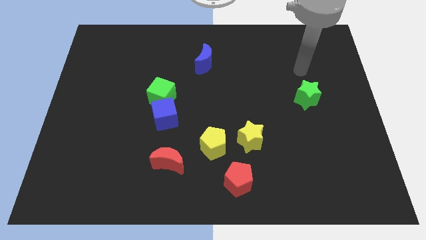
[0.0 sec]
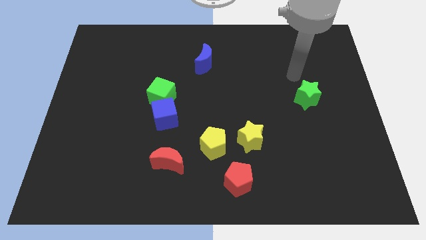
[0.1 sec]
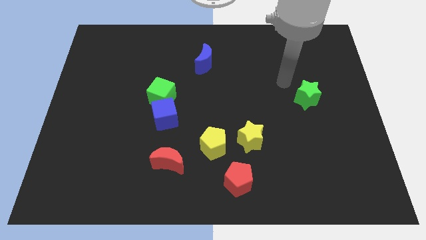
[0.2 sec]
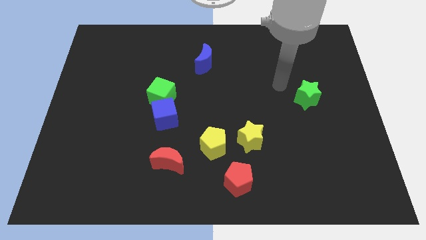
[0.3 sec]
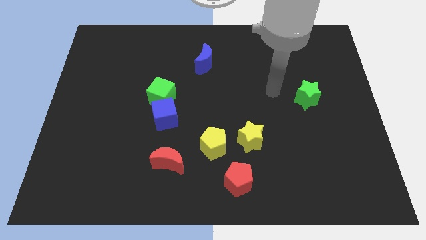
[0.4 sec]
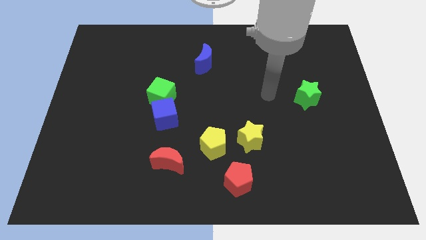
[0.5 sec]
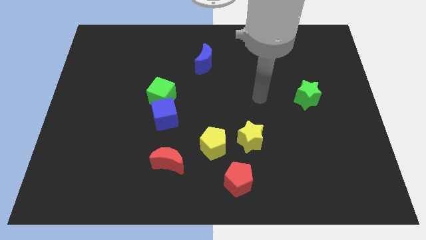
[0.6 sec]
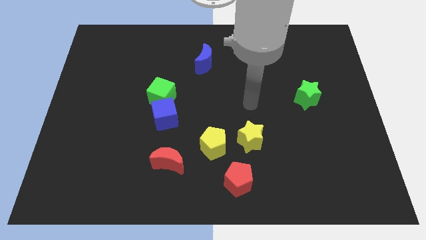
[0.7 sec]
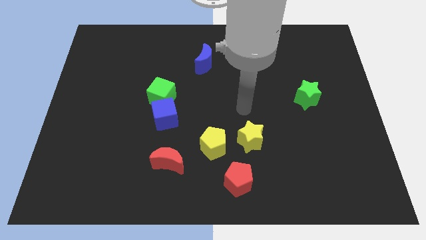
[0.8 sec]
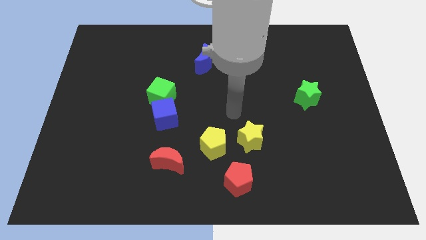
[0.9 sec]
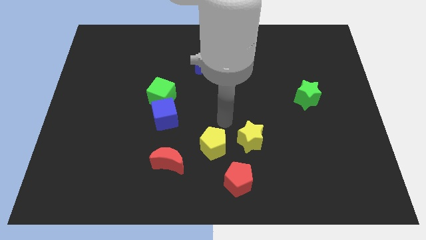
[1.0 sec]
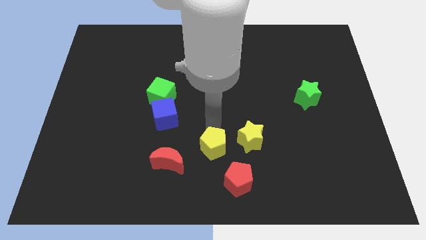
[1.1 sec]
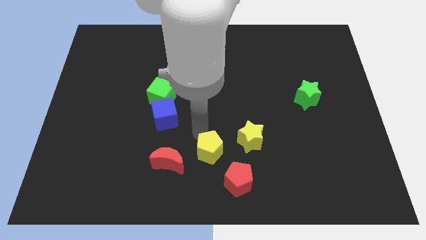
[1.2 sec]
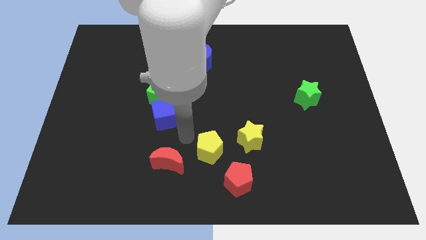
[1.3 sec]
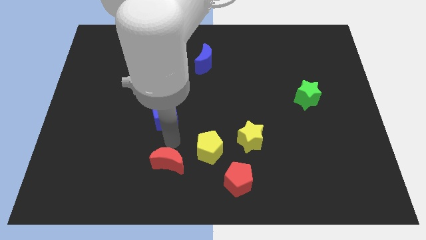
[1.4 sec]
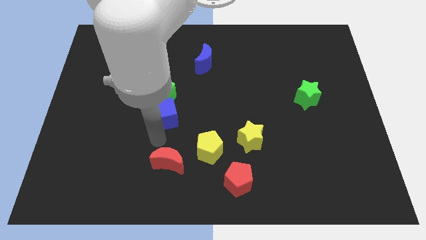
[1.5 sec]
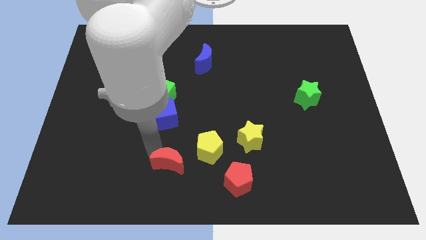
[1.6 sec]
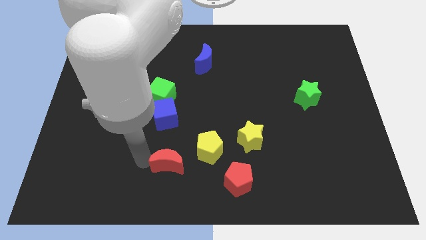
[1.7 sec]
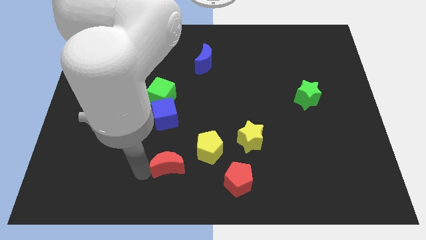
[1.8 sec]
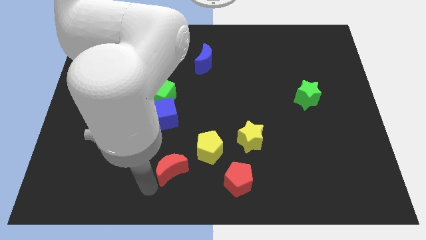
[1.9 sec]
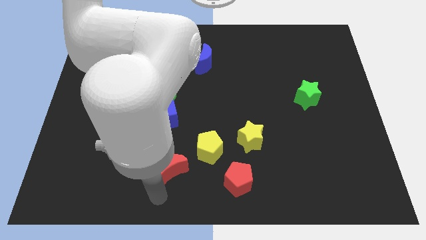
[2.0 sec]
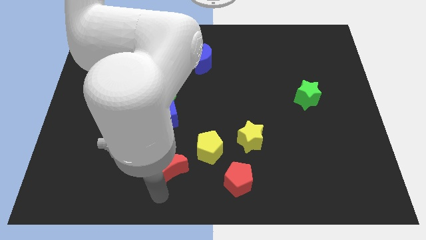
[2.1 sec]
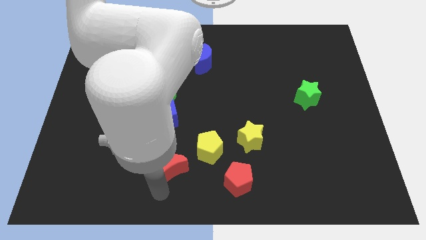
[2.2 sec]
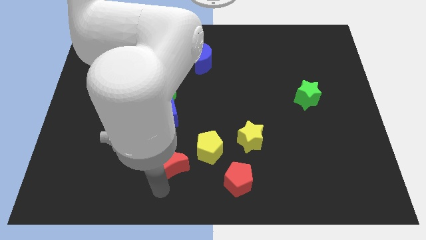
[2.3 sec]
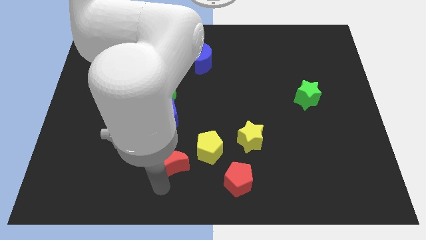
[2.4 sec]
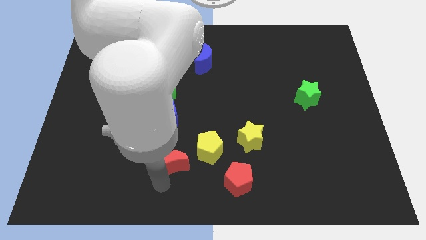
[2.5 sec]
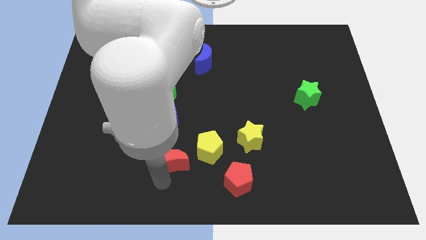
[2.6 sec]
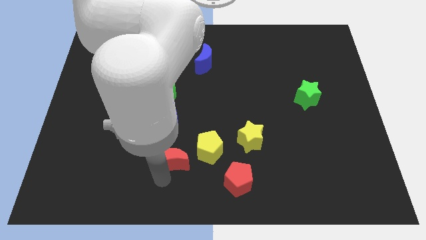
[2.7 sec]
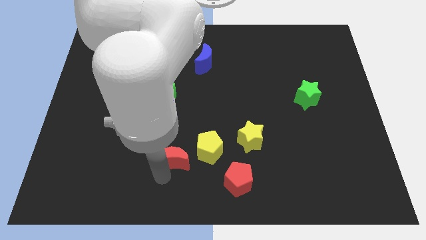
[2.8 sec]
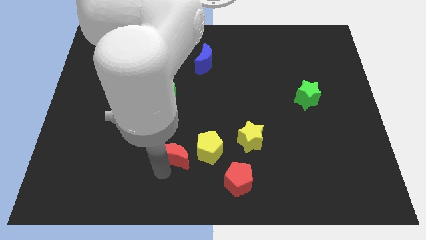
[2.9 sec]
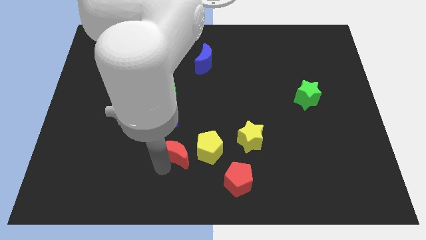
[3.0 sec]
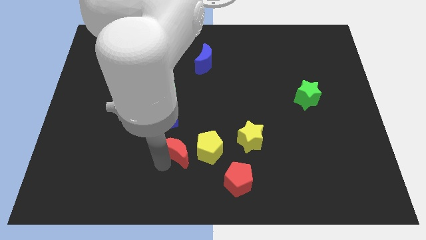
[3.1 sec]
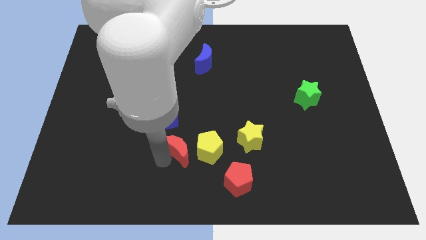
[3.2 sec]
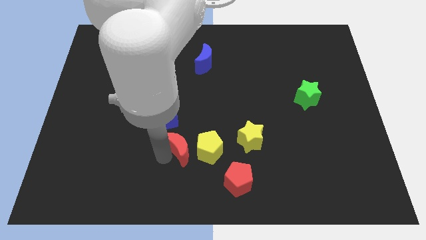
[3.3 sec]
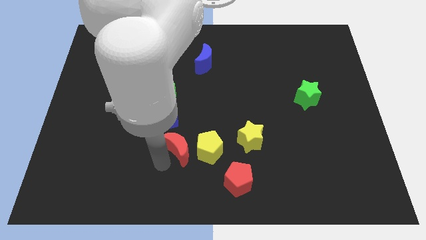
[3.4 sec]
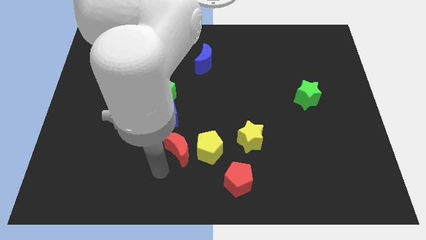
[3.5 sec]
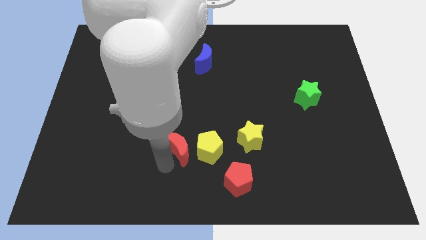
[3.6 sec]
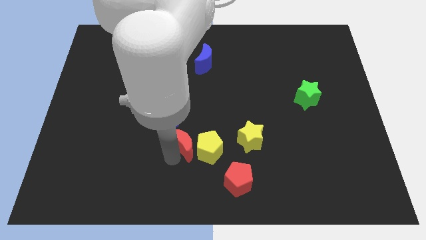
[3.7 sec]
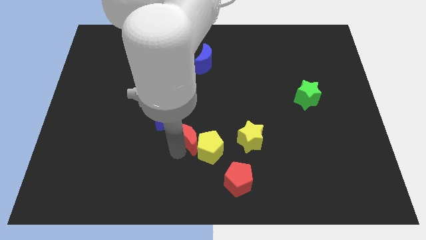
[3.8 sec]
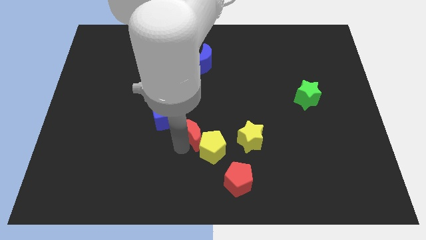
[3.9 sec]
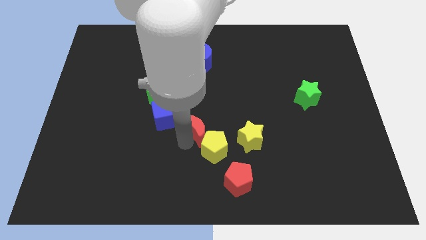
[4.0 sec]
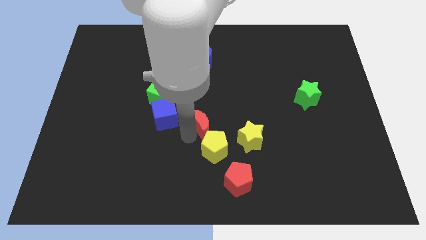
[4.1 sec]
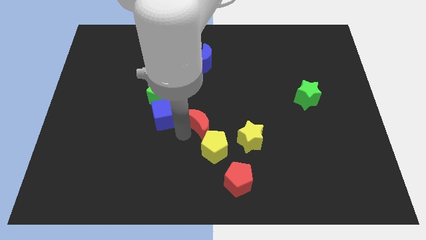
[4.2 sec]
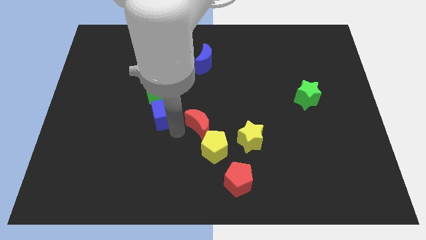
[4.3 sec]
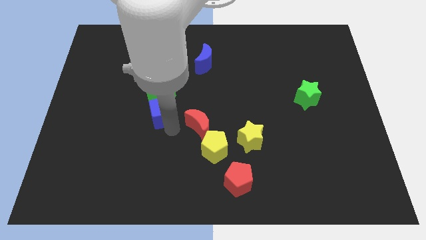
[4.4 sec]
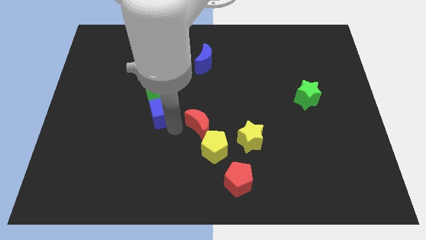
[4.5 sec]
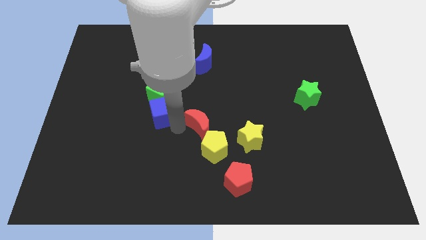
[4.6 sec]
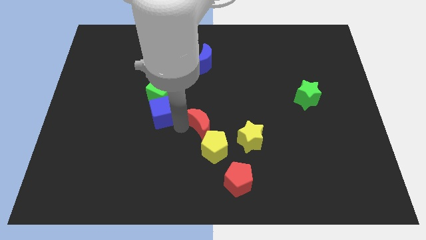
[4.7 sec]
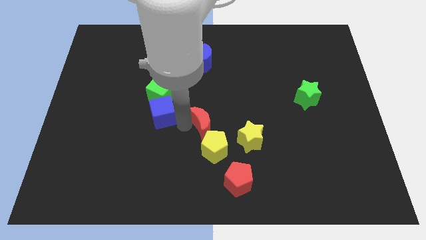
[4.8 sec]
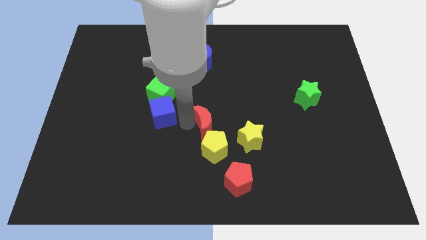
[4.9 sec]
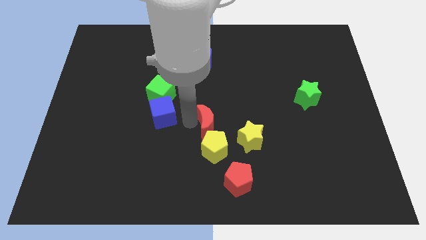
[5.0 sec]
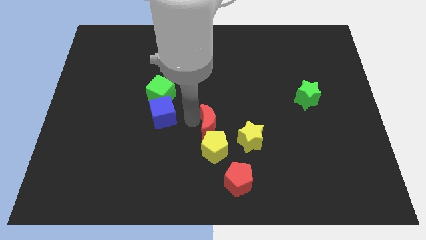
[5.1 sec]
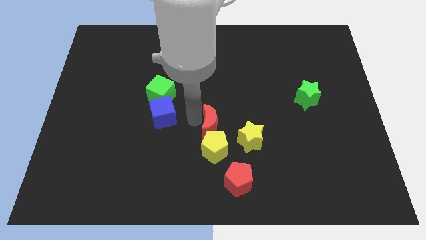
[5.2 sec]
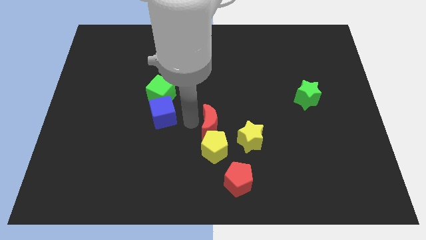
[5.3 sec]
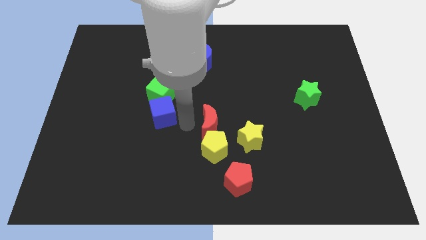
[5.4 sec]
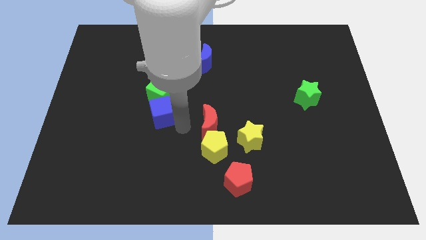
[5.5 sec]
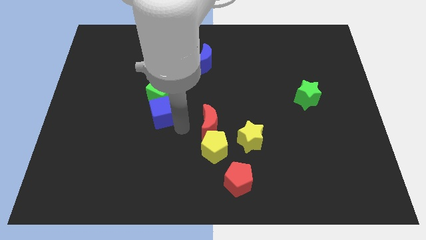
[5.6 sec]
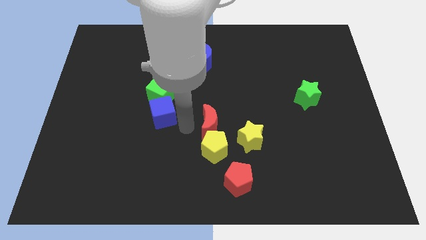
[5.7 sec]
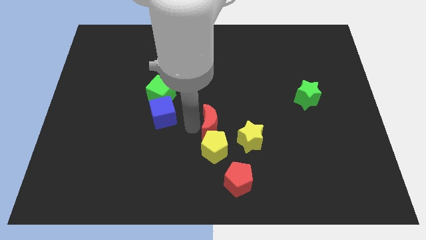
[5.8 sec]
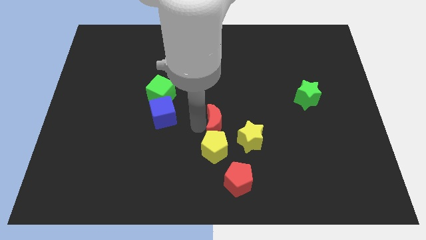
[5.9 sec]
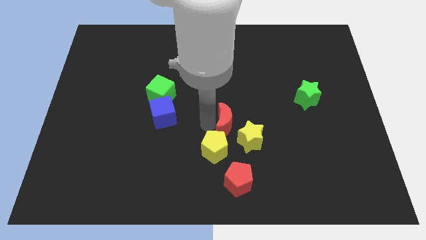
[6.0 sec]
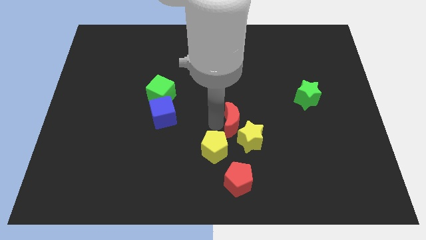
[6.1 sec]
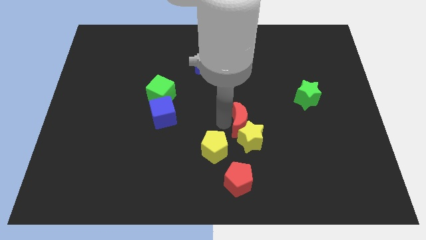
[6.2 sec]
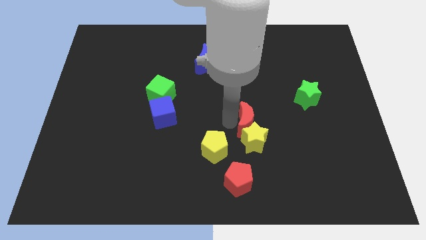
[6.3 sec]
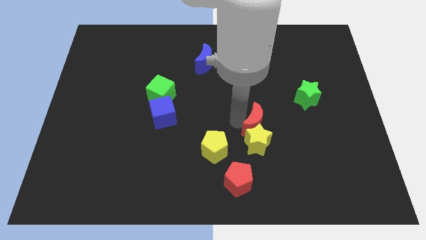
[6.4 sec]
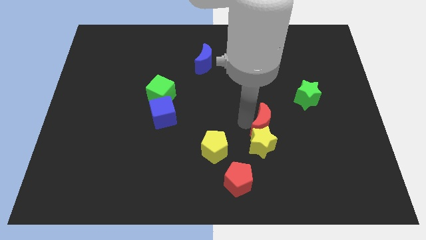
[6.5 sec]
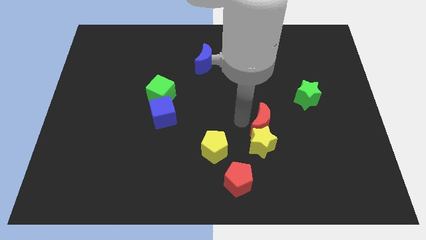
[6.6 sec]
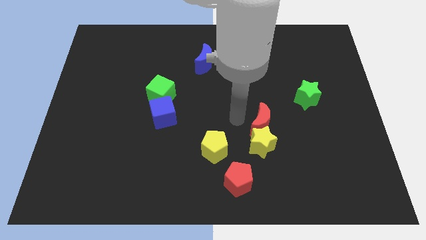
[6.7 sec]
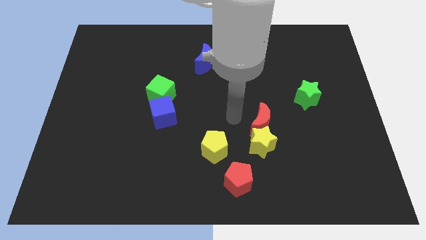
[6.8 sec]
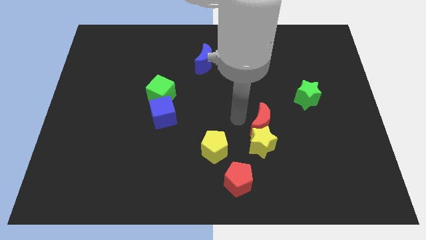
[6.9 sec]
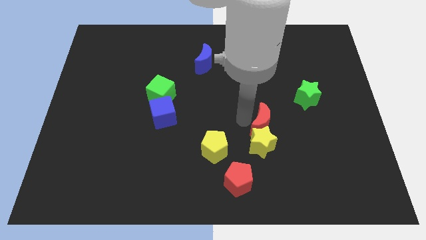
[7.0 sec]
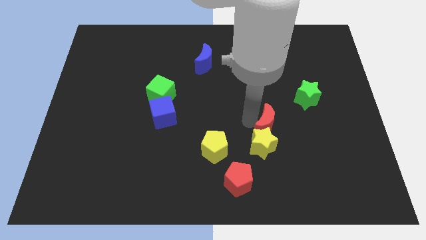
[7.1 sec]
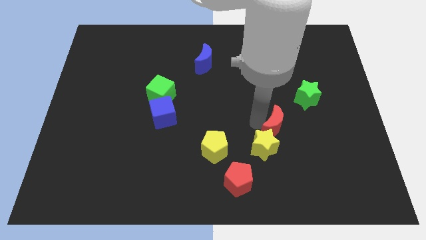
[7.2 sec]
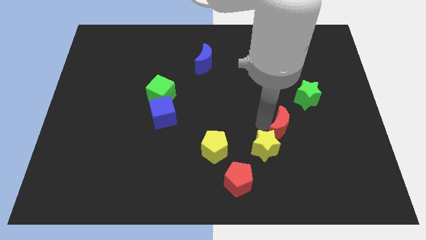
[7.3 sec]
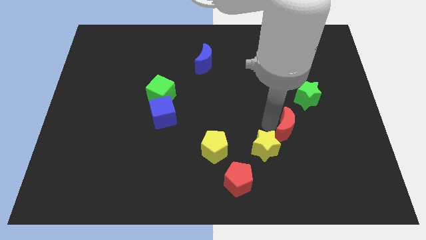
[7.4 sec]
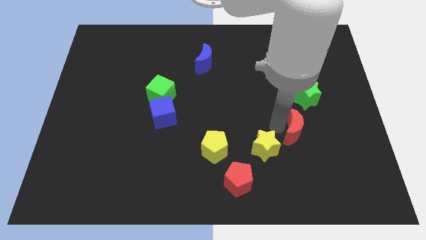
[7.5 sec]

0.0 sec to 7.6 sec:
slide the red moon to the bottom of the green star

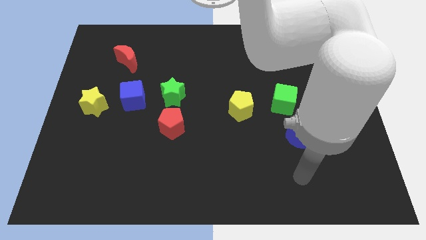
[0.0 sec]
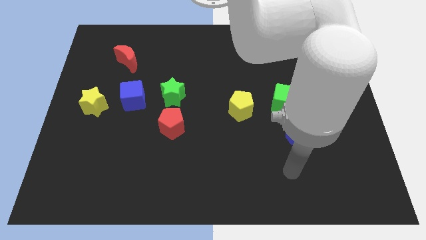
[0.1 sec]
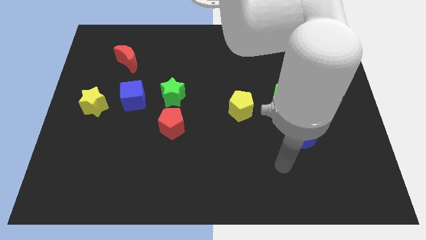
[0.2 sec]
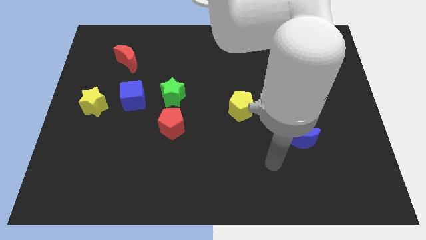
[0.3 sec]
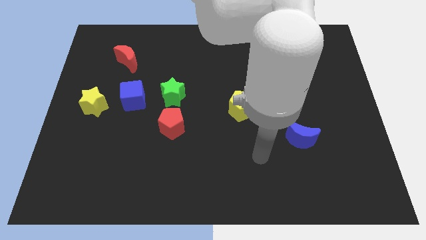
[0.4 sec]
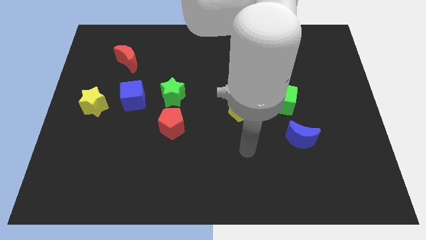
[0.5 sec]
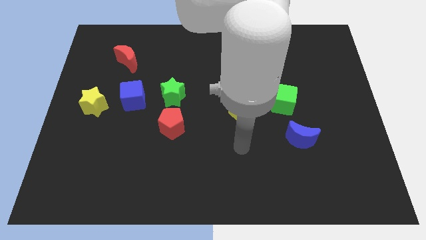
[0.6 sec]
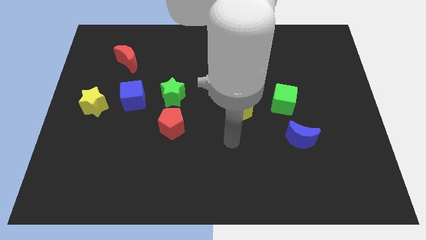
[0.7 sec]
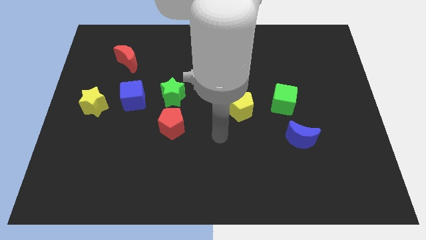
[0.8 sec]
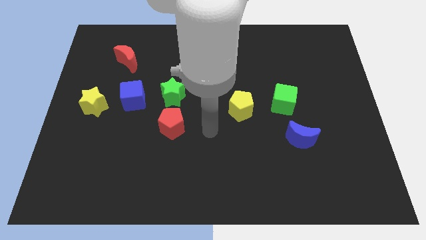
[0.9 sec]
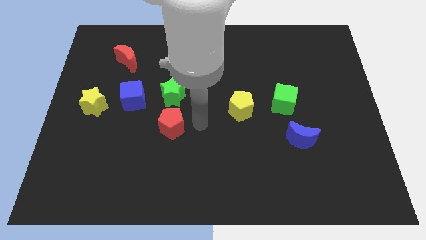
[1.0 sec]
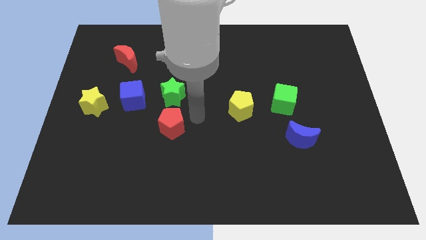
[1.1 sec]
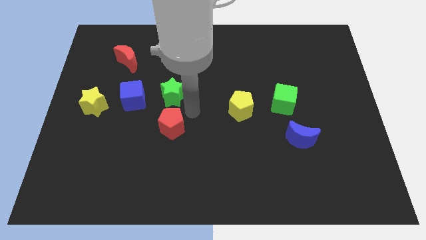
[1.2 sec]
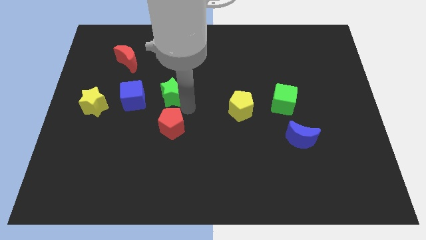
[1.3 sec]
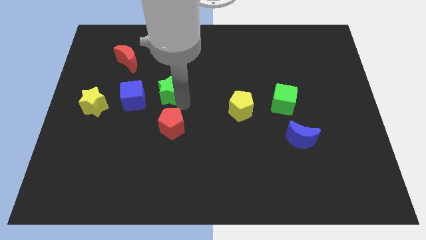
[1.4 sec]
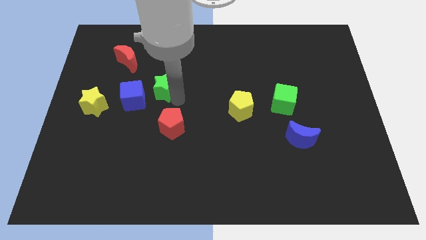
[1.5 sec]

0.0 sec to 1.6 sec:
push the green star to the top right of the blue cube
